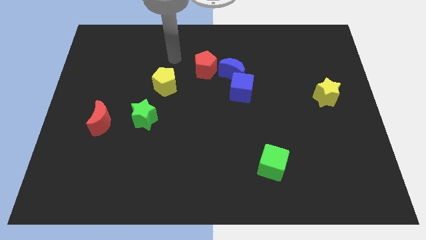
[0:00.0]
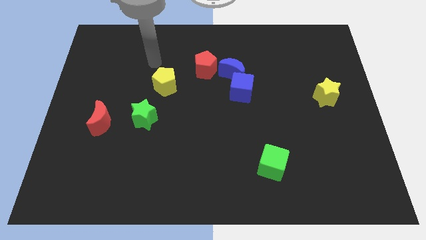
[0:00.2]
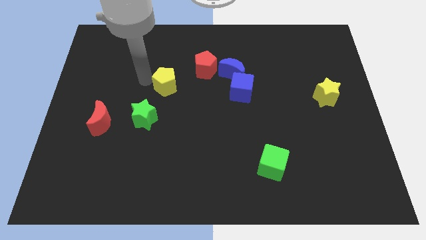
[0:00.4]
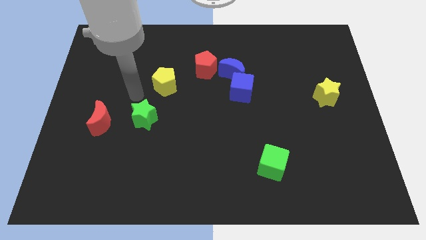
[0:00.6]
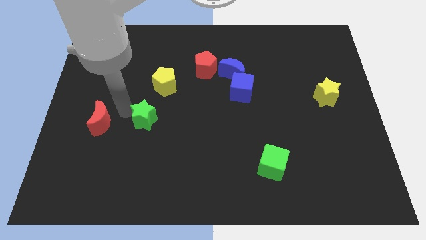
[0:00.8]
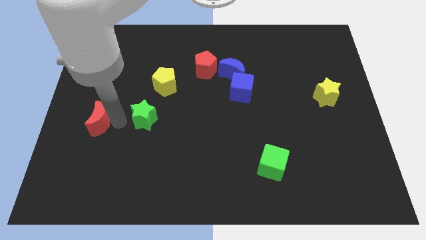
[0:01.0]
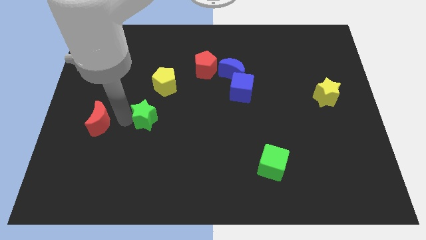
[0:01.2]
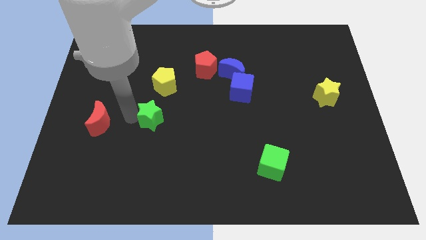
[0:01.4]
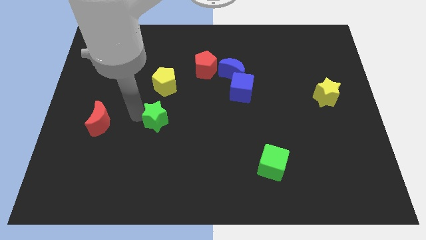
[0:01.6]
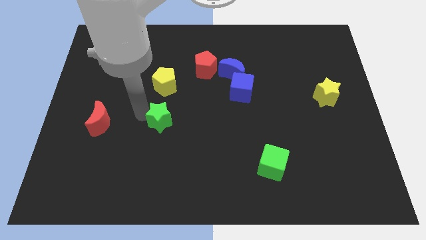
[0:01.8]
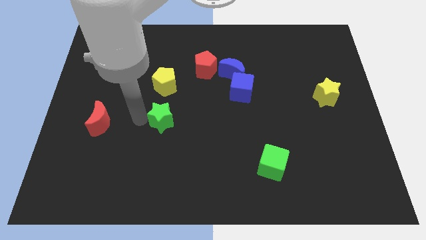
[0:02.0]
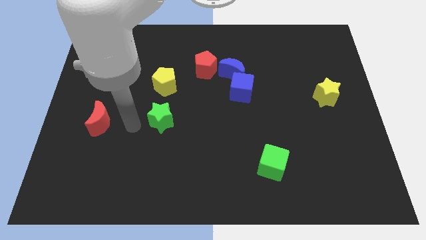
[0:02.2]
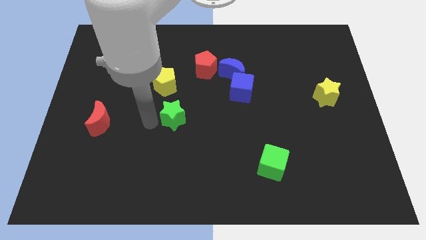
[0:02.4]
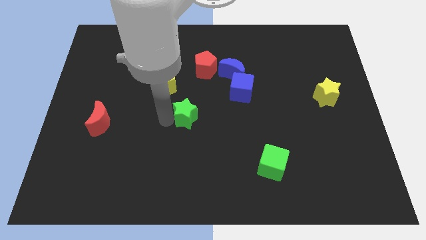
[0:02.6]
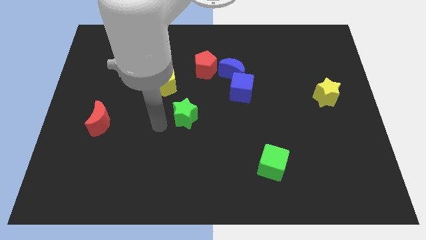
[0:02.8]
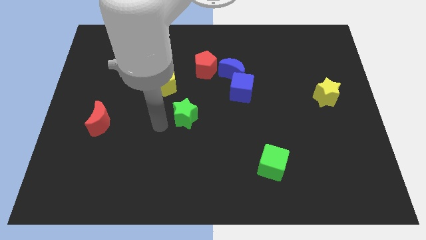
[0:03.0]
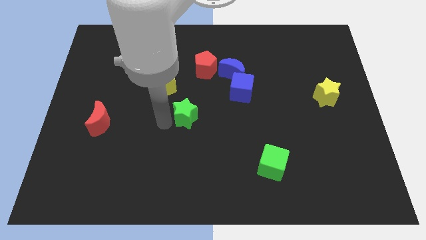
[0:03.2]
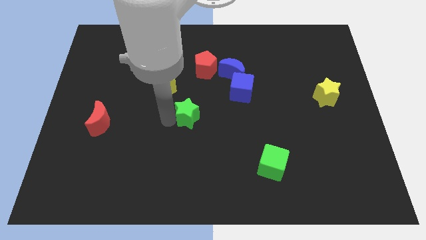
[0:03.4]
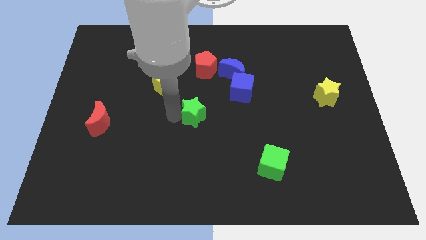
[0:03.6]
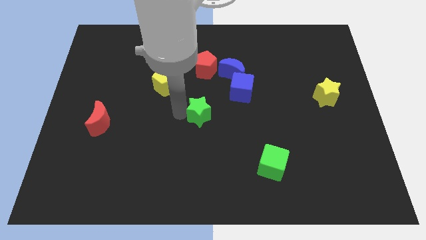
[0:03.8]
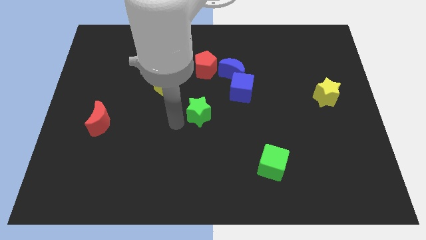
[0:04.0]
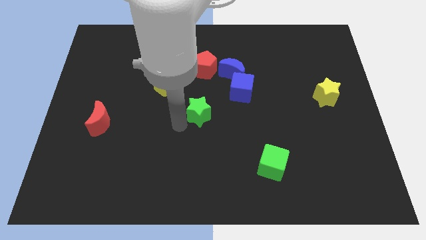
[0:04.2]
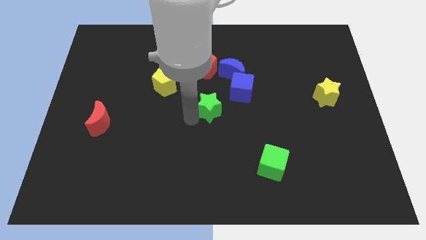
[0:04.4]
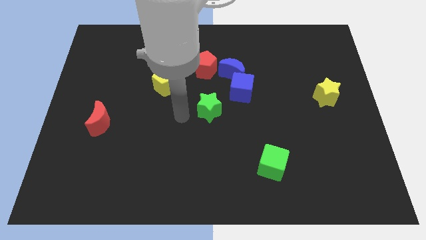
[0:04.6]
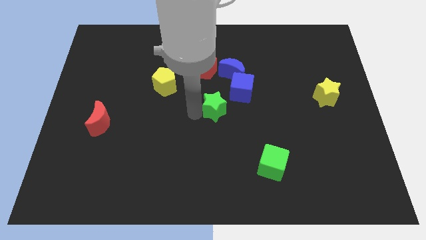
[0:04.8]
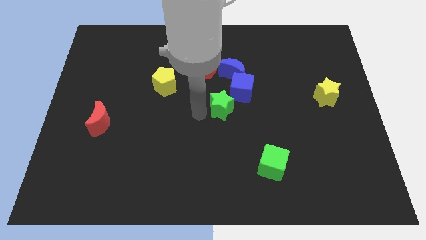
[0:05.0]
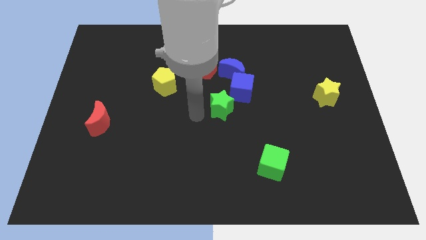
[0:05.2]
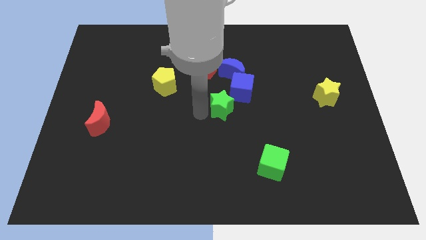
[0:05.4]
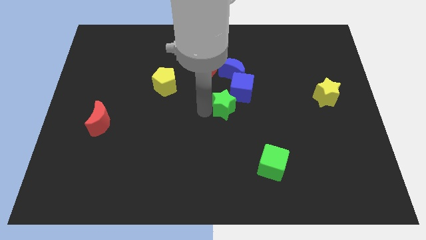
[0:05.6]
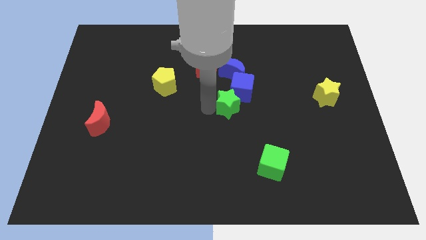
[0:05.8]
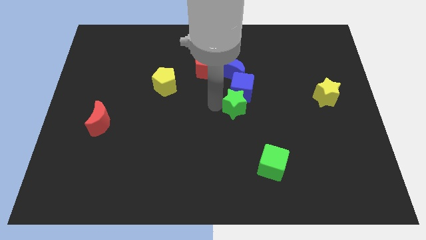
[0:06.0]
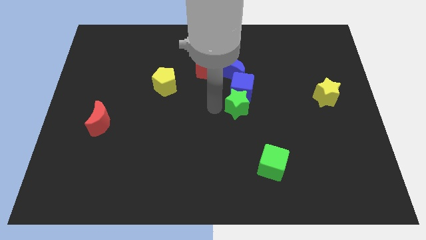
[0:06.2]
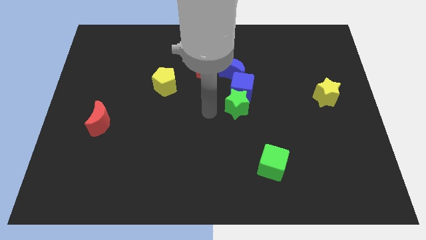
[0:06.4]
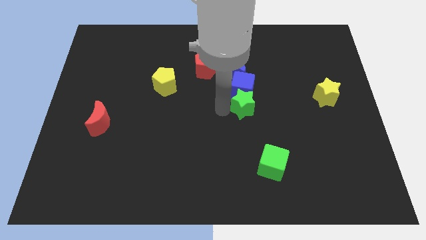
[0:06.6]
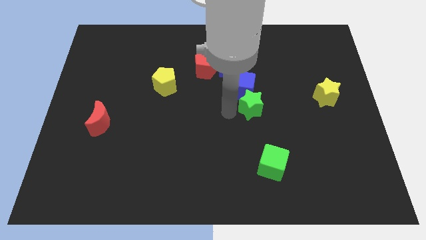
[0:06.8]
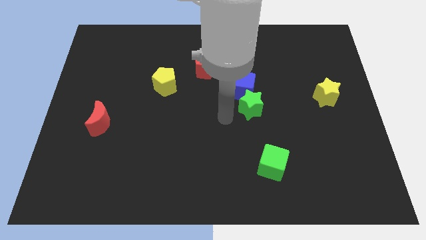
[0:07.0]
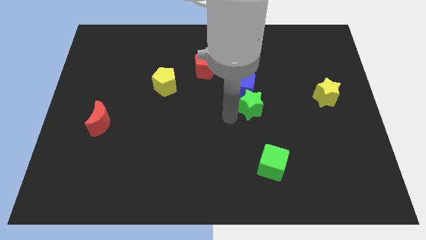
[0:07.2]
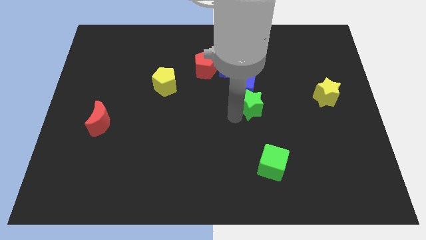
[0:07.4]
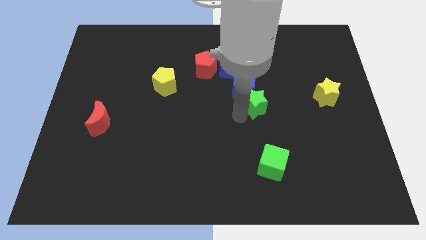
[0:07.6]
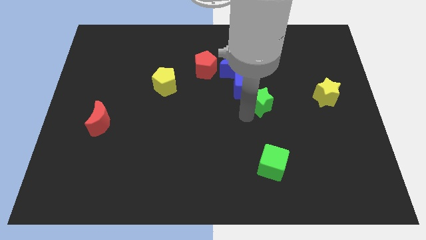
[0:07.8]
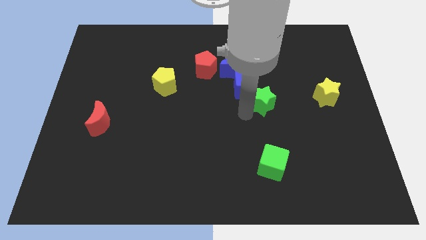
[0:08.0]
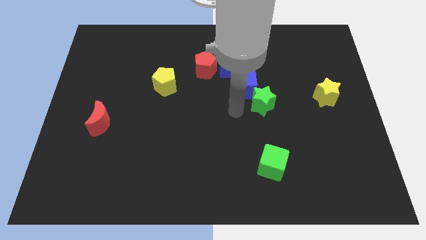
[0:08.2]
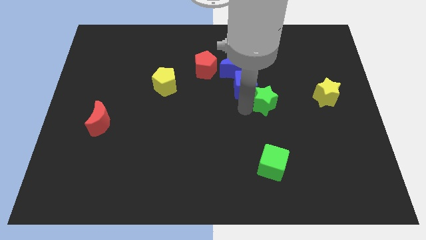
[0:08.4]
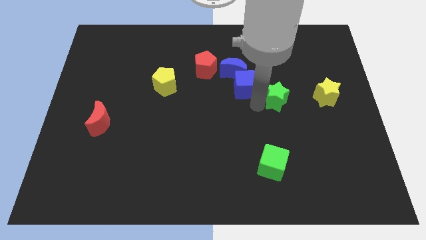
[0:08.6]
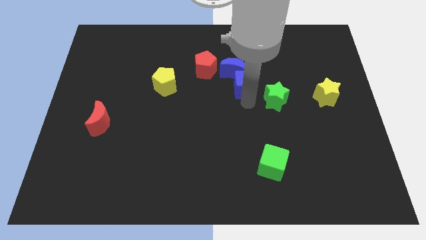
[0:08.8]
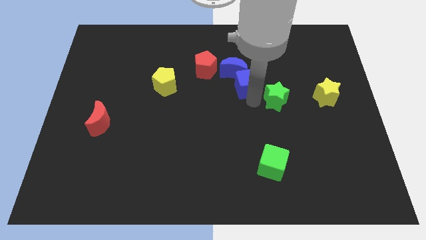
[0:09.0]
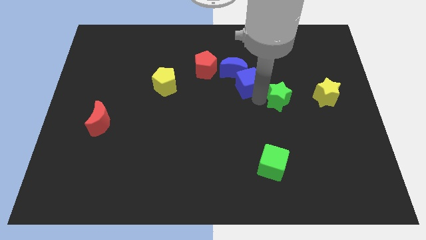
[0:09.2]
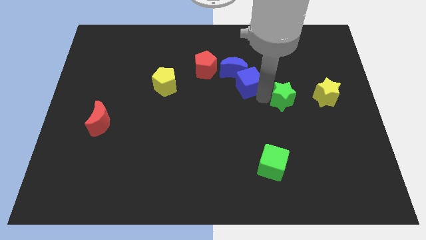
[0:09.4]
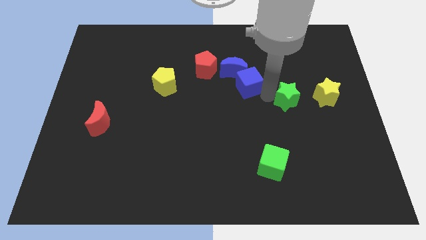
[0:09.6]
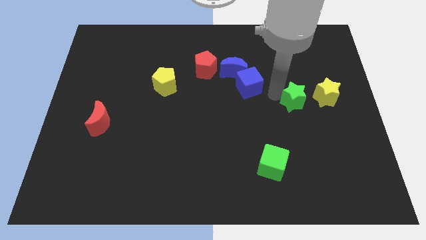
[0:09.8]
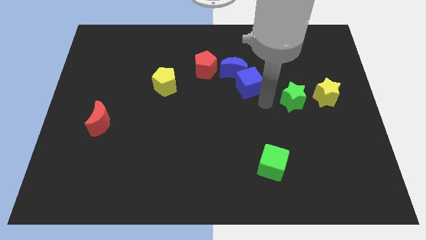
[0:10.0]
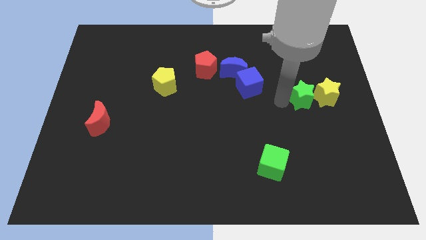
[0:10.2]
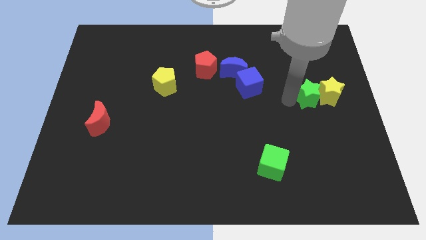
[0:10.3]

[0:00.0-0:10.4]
move the green star next to the yellow star

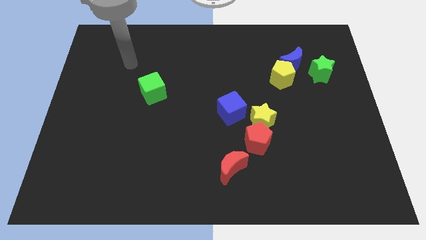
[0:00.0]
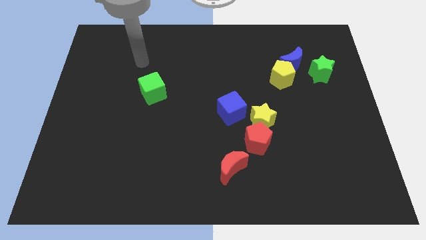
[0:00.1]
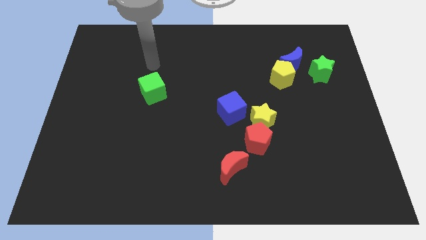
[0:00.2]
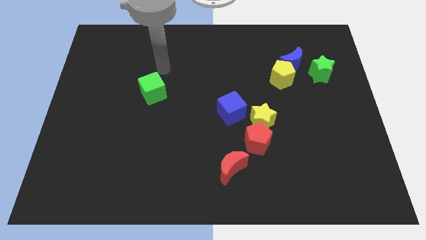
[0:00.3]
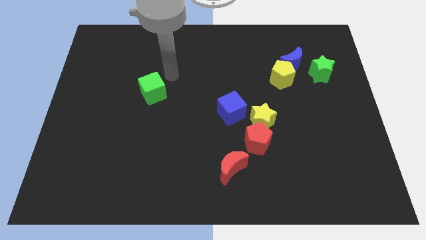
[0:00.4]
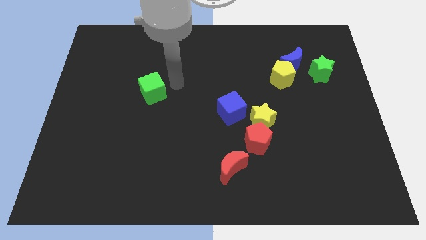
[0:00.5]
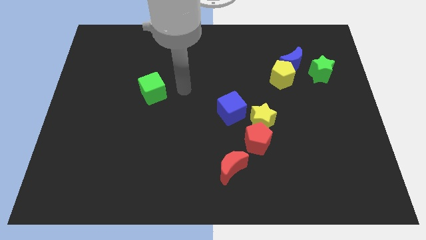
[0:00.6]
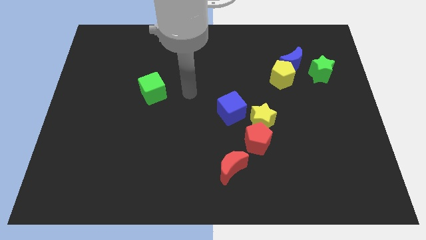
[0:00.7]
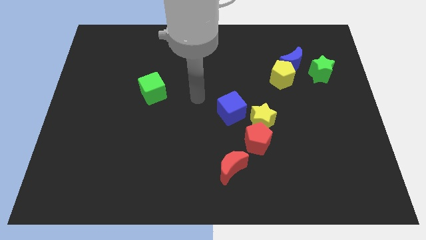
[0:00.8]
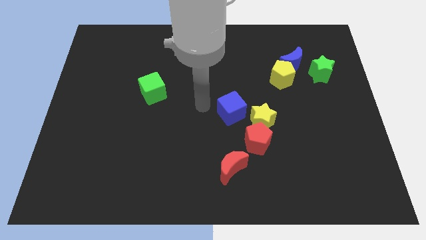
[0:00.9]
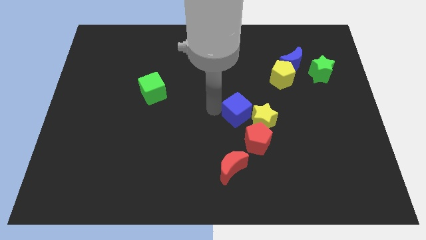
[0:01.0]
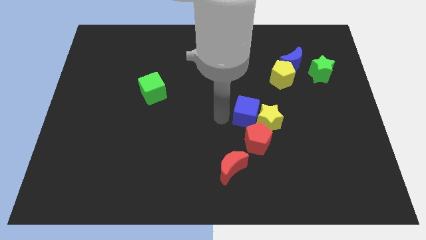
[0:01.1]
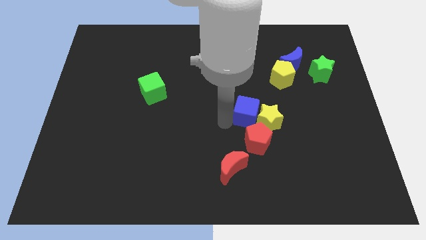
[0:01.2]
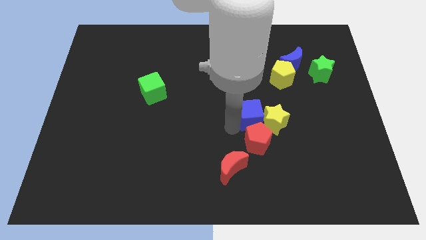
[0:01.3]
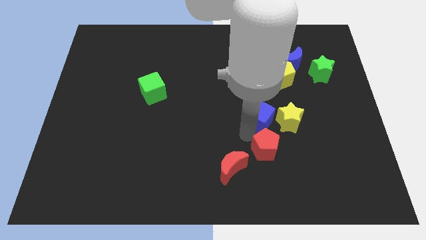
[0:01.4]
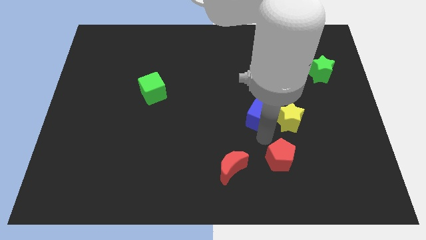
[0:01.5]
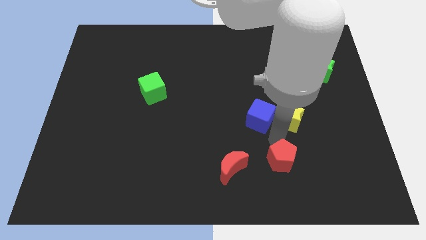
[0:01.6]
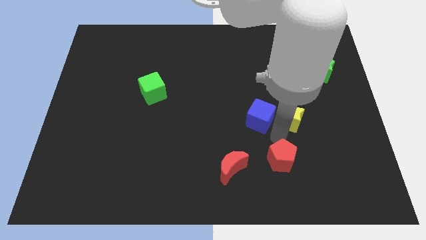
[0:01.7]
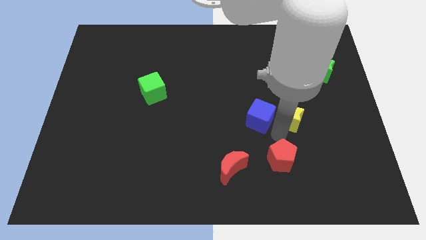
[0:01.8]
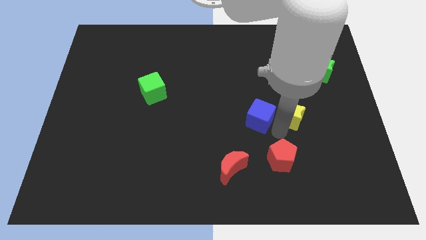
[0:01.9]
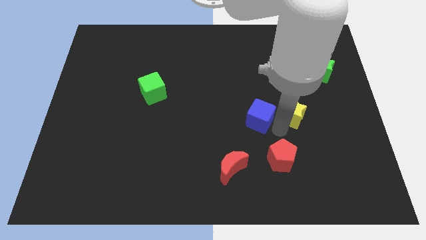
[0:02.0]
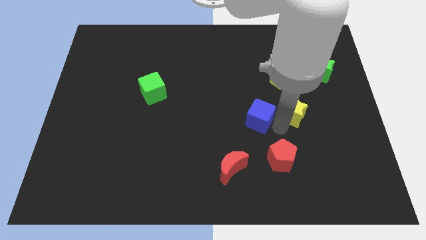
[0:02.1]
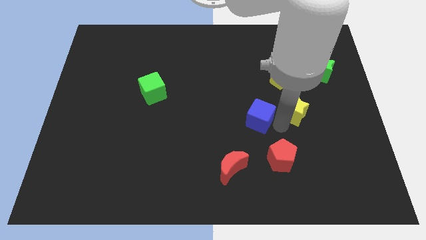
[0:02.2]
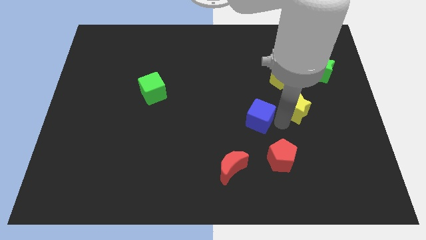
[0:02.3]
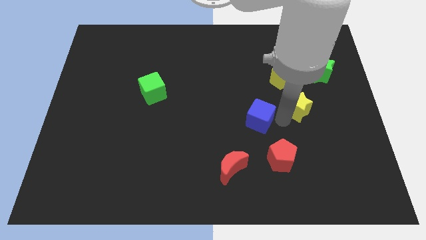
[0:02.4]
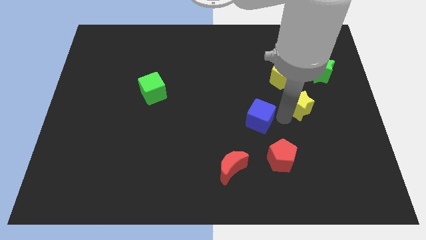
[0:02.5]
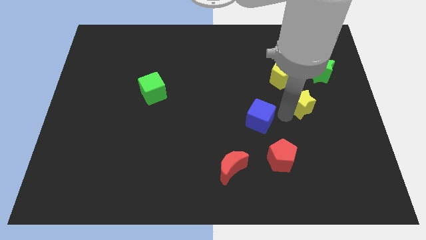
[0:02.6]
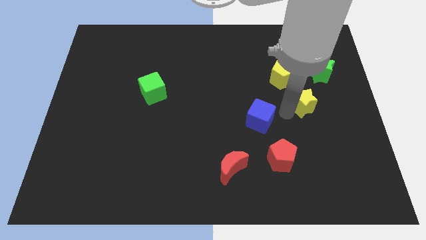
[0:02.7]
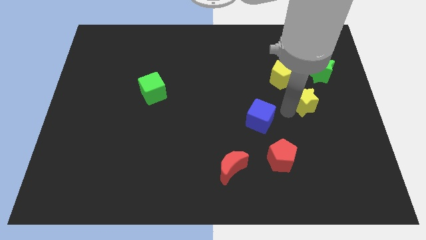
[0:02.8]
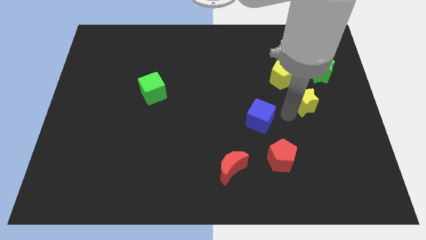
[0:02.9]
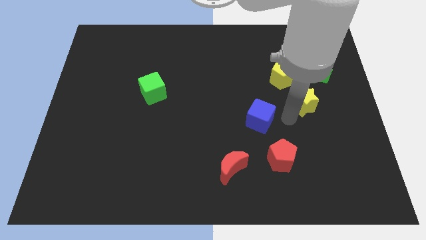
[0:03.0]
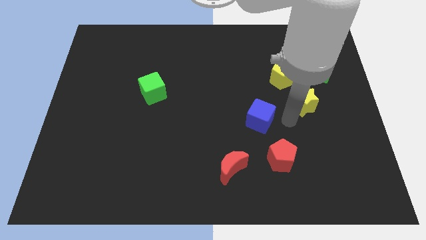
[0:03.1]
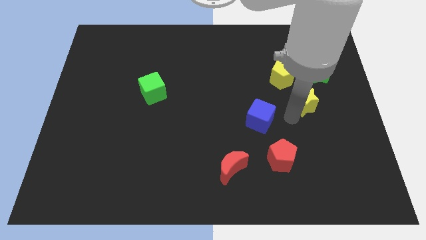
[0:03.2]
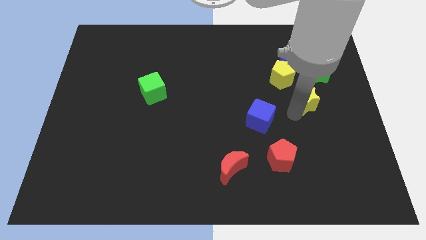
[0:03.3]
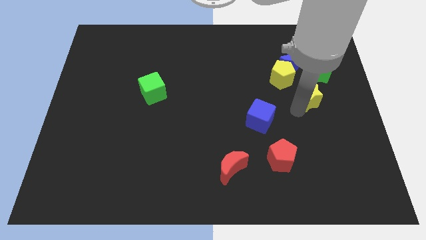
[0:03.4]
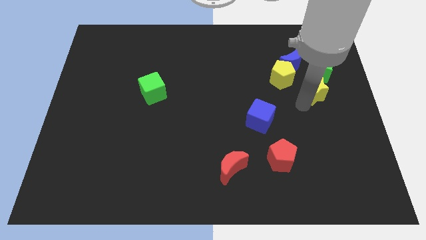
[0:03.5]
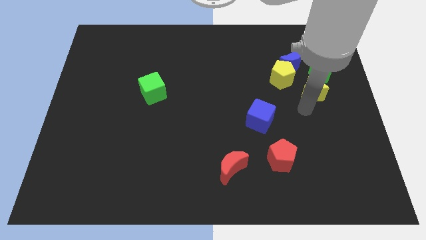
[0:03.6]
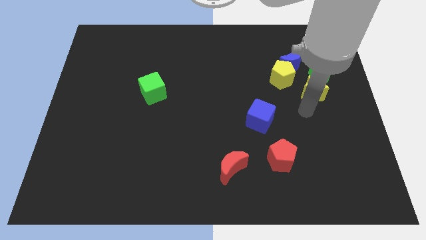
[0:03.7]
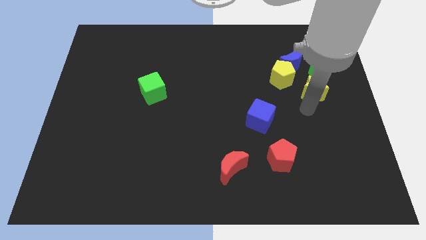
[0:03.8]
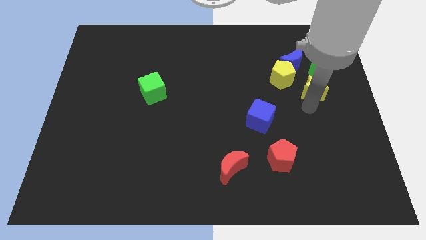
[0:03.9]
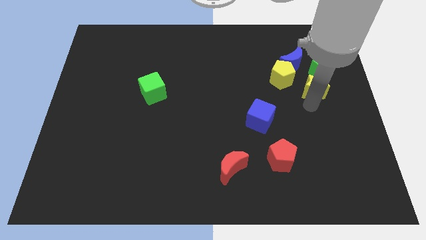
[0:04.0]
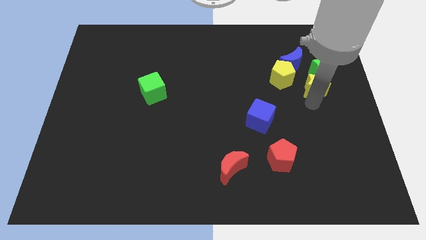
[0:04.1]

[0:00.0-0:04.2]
put the yellow star towards the green star
